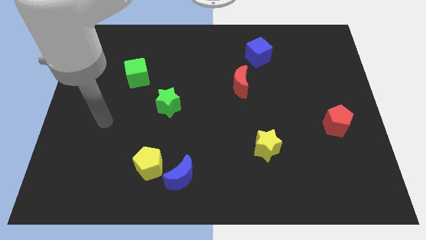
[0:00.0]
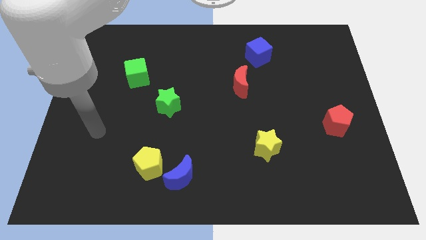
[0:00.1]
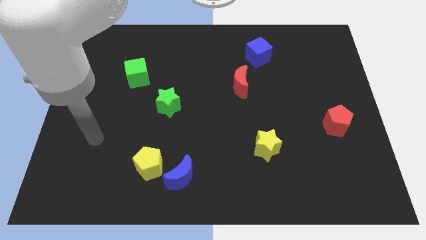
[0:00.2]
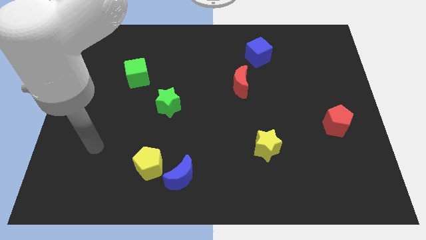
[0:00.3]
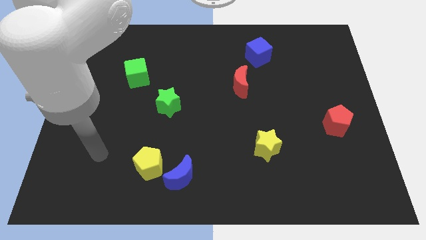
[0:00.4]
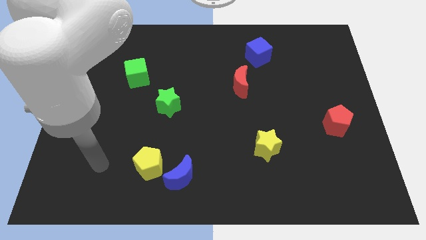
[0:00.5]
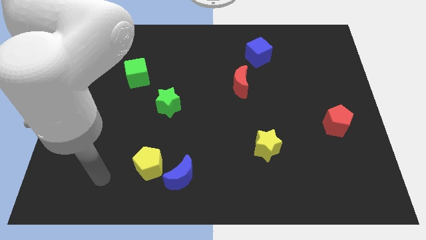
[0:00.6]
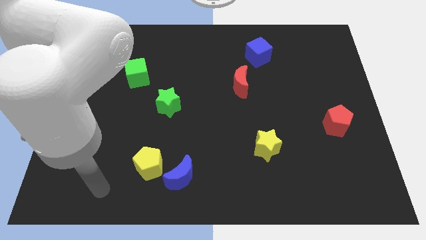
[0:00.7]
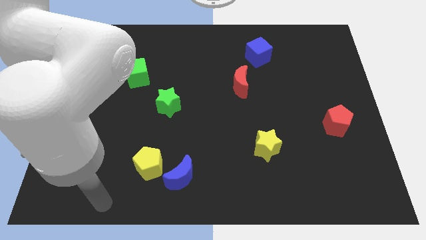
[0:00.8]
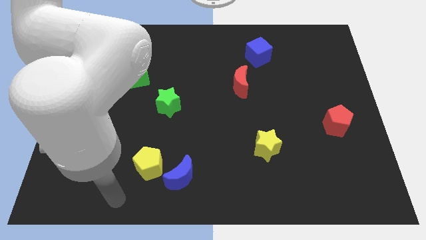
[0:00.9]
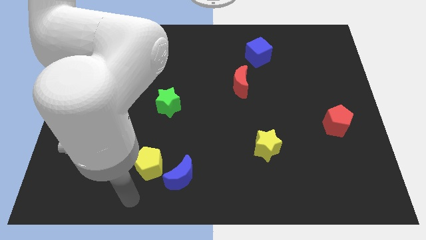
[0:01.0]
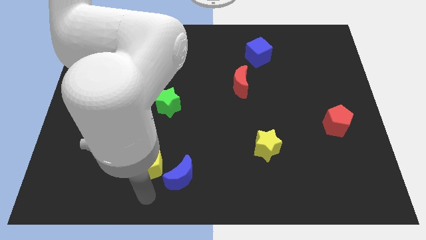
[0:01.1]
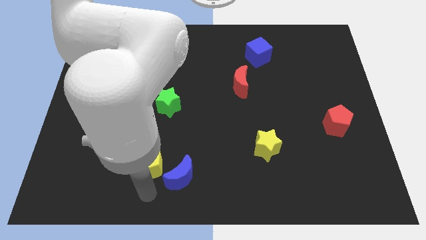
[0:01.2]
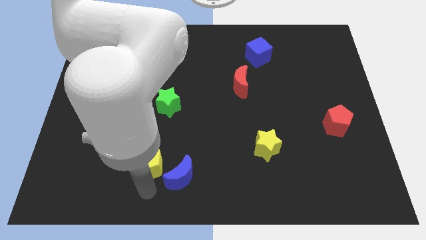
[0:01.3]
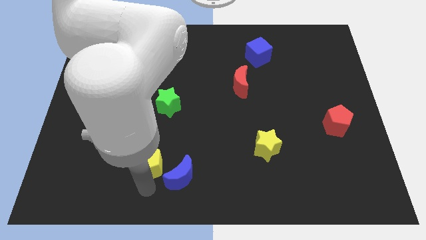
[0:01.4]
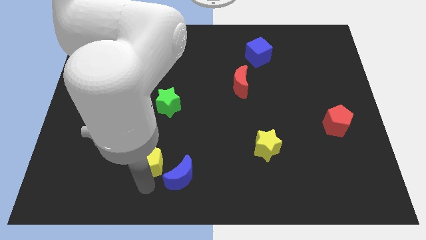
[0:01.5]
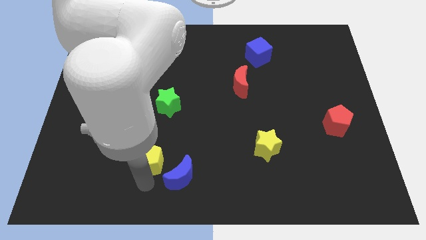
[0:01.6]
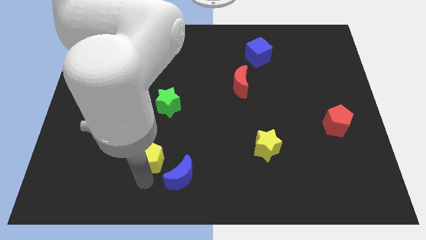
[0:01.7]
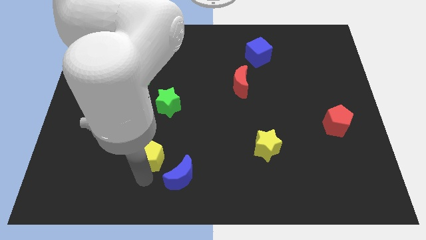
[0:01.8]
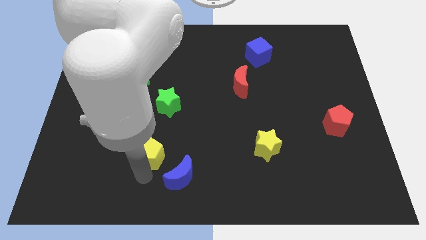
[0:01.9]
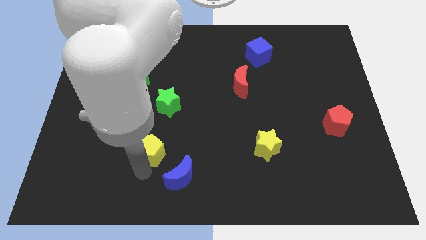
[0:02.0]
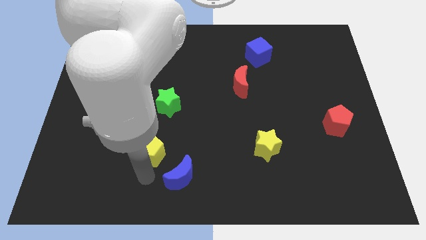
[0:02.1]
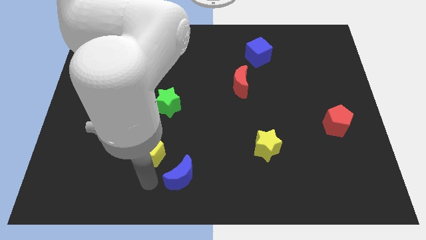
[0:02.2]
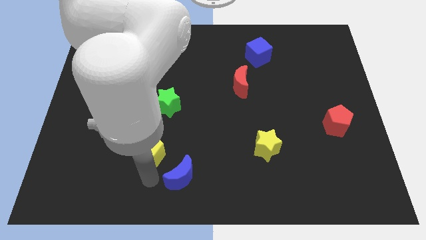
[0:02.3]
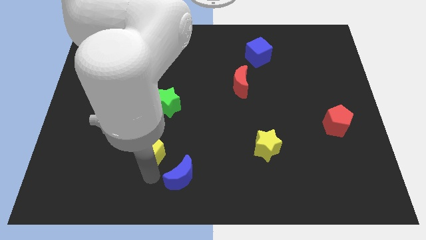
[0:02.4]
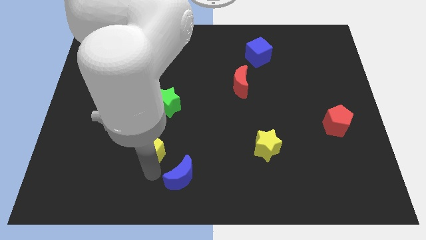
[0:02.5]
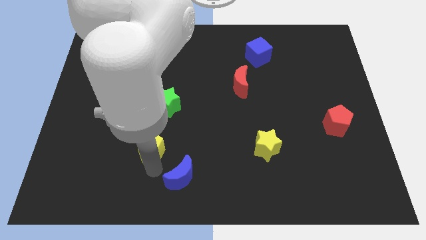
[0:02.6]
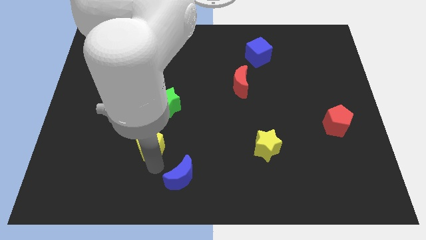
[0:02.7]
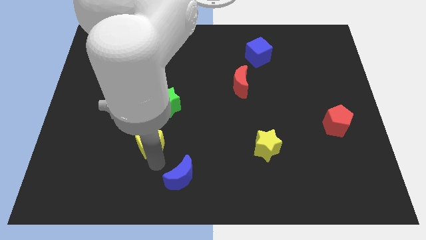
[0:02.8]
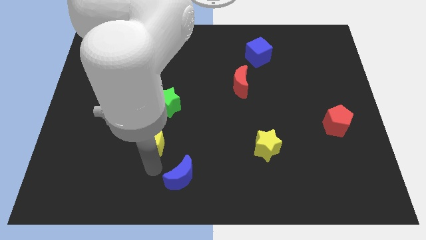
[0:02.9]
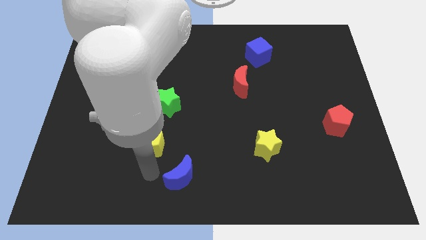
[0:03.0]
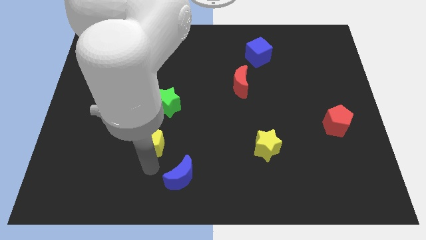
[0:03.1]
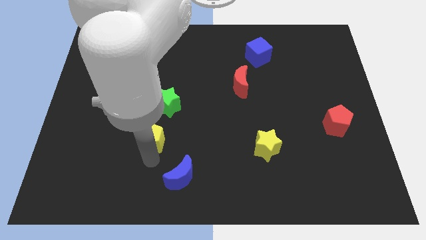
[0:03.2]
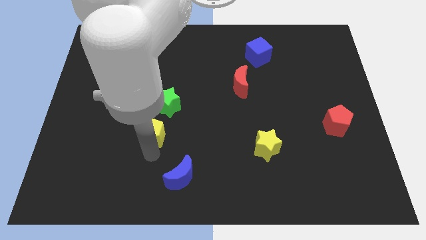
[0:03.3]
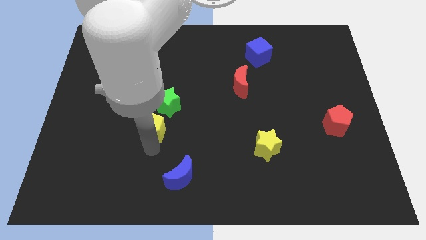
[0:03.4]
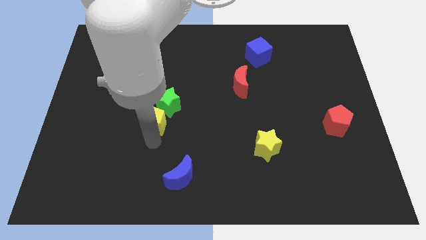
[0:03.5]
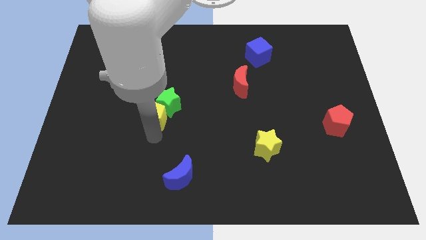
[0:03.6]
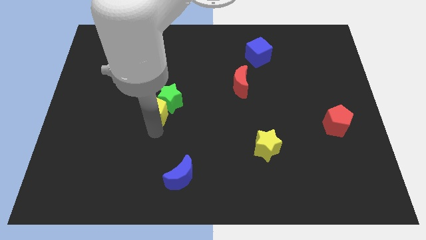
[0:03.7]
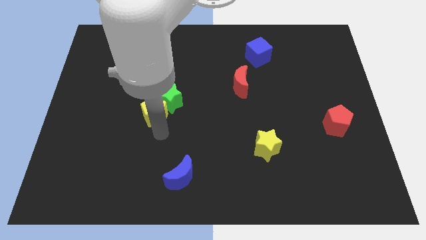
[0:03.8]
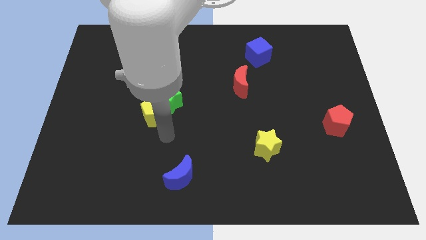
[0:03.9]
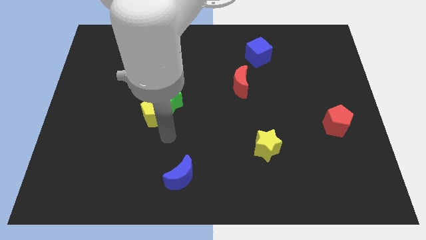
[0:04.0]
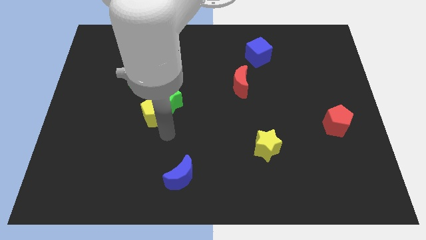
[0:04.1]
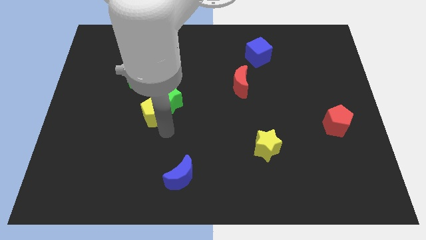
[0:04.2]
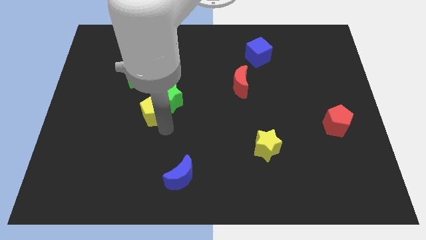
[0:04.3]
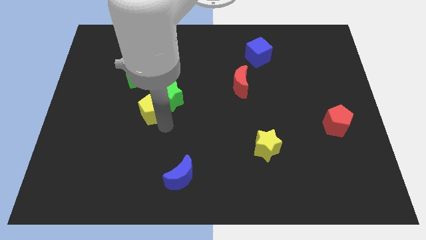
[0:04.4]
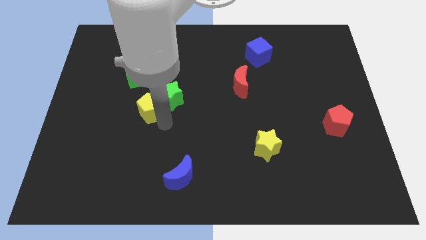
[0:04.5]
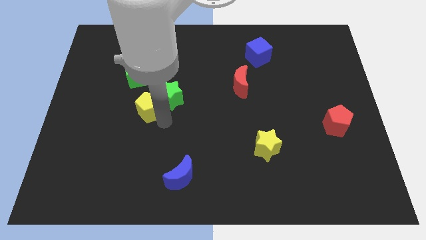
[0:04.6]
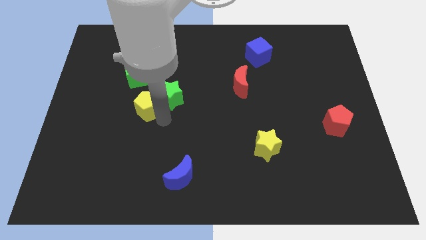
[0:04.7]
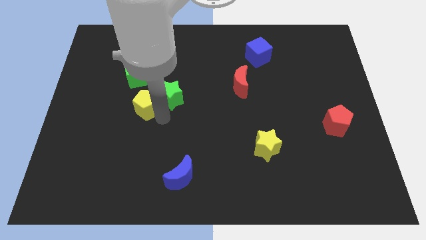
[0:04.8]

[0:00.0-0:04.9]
slide the yellow pentagon diagonally down and to the right of the green cube

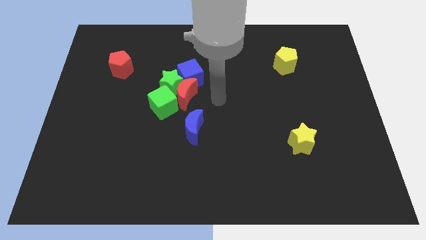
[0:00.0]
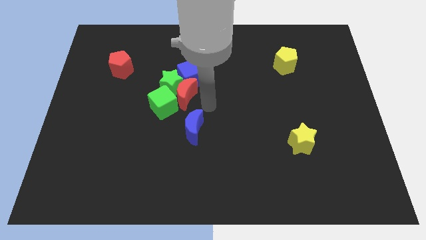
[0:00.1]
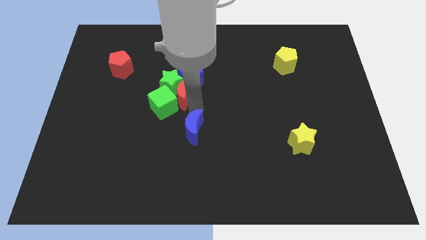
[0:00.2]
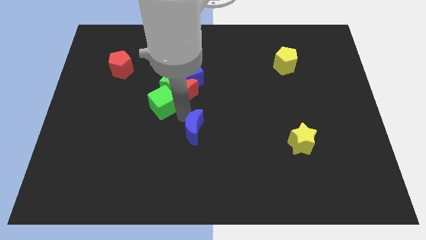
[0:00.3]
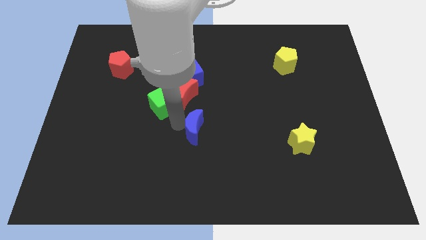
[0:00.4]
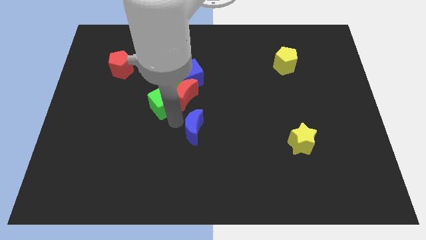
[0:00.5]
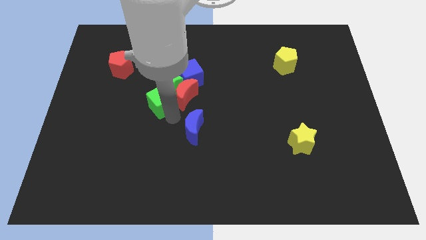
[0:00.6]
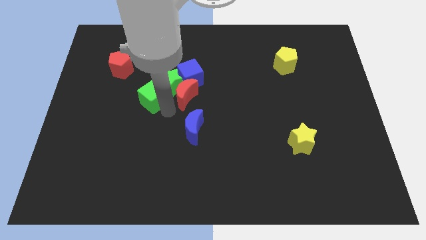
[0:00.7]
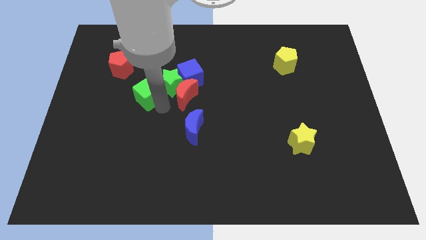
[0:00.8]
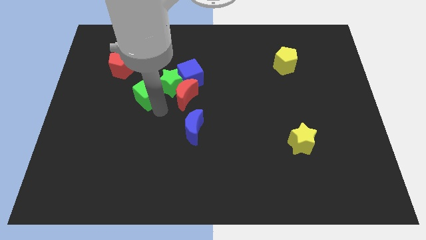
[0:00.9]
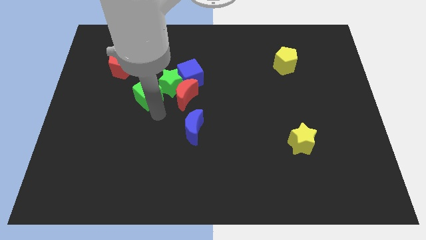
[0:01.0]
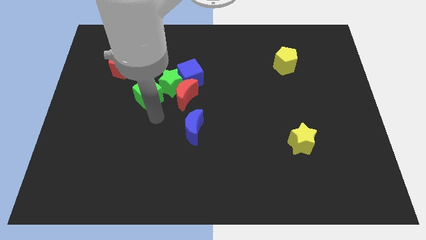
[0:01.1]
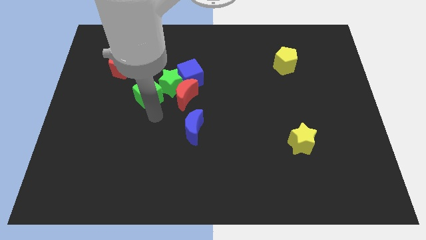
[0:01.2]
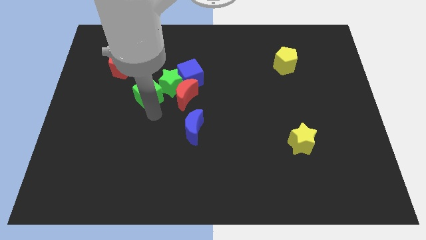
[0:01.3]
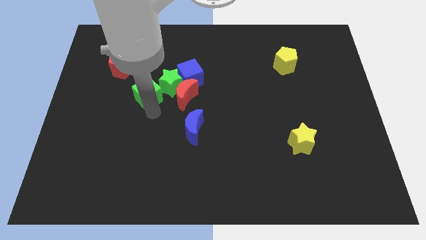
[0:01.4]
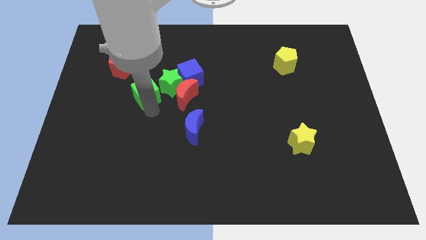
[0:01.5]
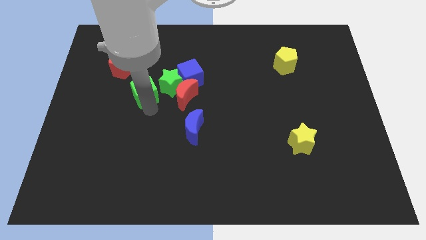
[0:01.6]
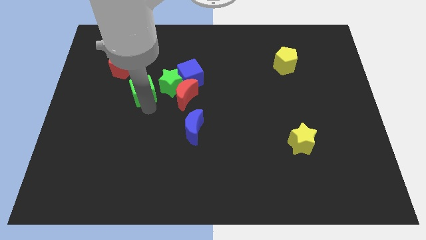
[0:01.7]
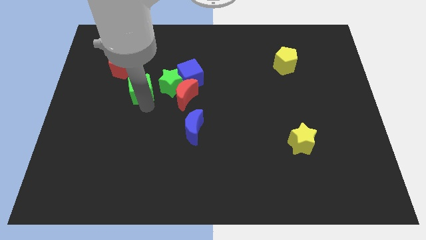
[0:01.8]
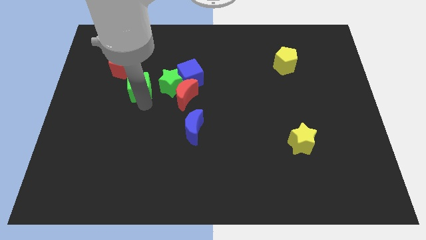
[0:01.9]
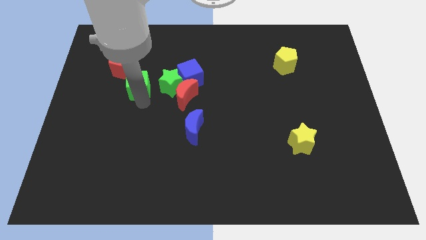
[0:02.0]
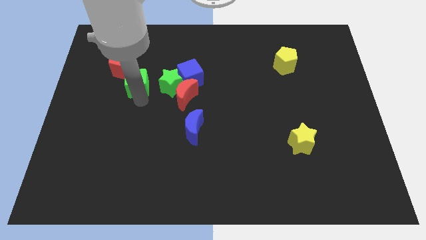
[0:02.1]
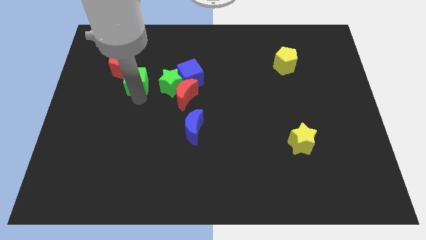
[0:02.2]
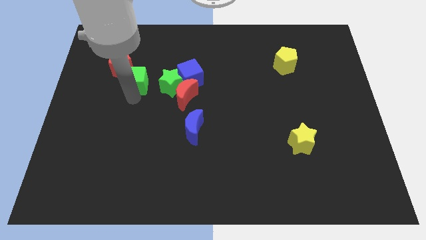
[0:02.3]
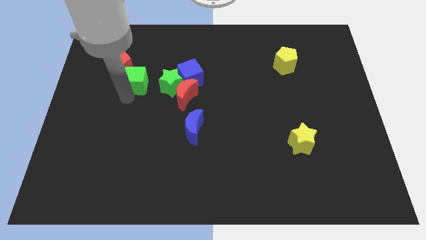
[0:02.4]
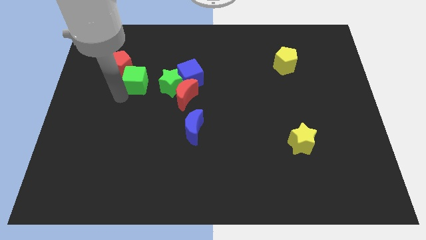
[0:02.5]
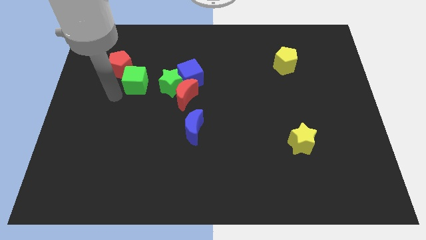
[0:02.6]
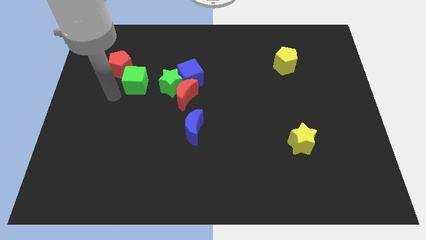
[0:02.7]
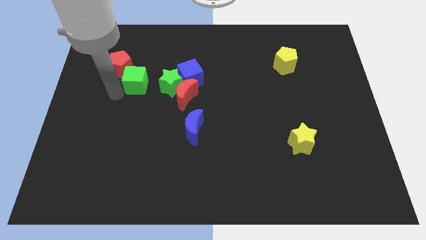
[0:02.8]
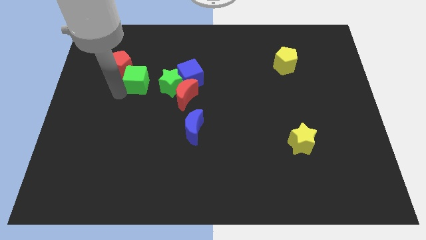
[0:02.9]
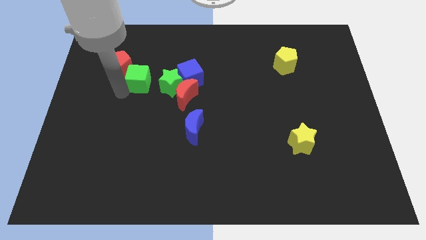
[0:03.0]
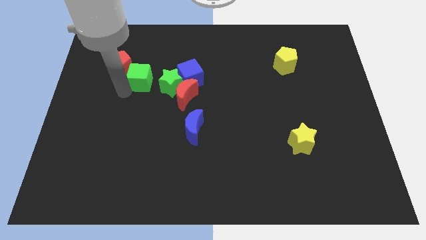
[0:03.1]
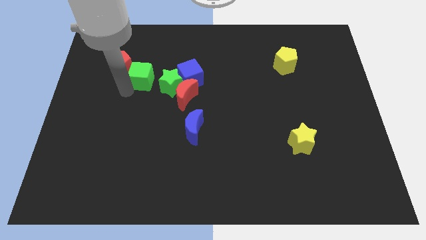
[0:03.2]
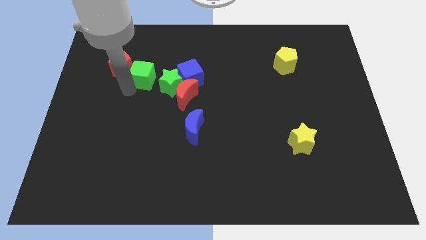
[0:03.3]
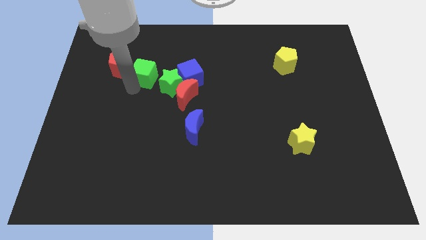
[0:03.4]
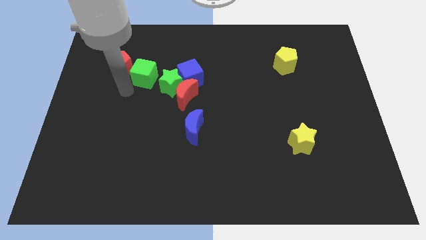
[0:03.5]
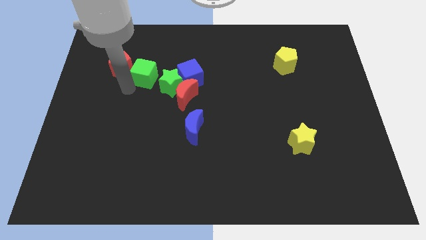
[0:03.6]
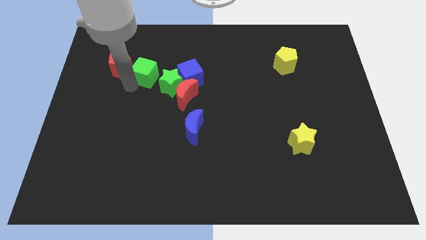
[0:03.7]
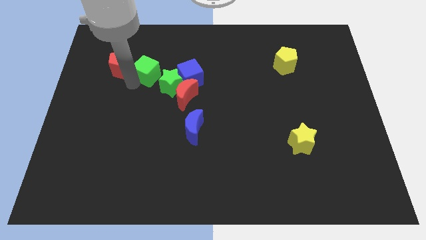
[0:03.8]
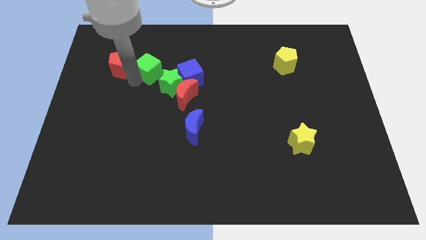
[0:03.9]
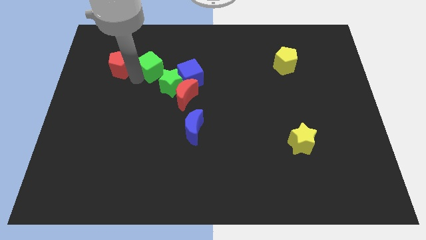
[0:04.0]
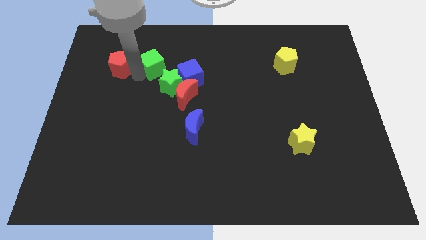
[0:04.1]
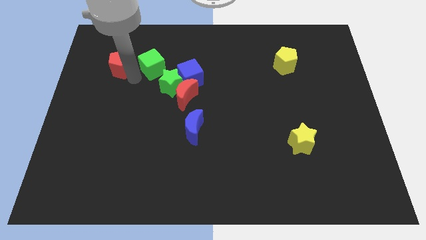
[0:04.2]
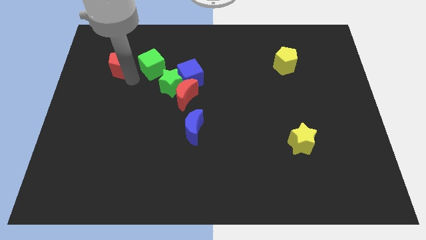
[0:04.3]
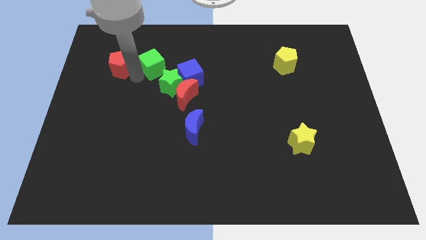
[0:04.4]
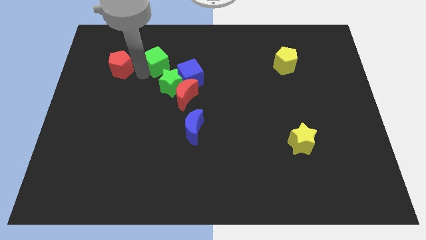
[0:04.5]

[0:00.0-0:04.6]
slide the green cube to the top of the green star
